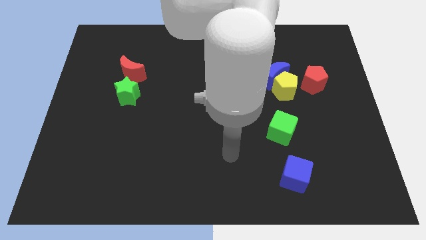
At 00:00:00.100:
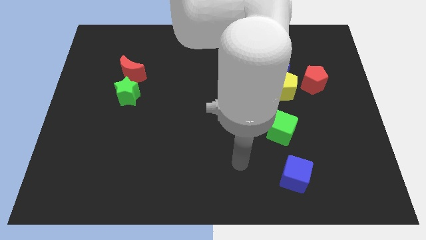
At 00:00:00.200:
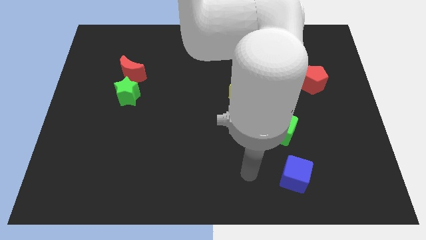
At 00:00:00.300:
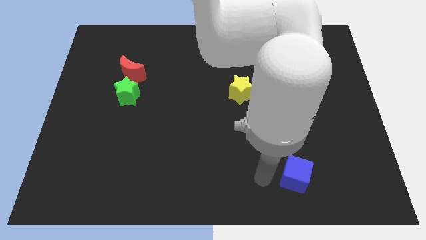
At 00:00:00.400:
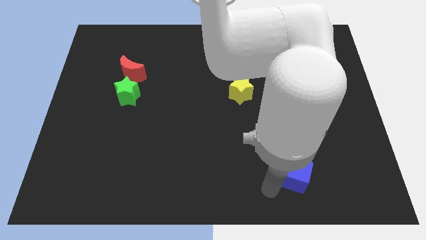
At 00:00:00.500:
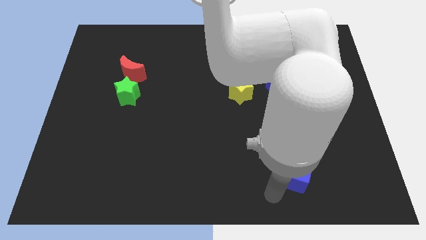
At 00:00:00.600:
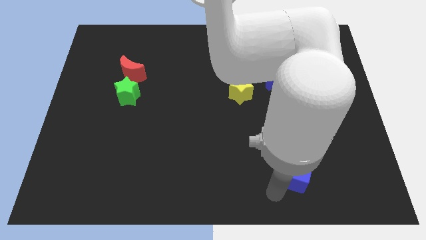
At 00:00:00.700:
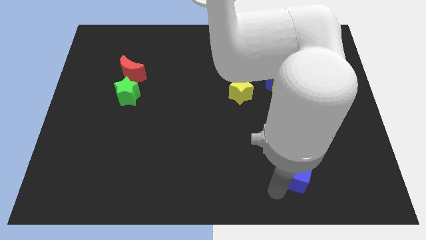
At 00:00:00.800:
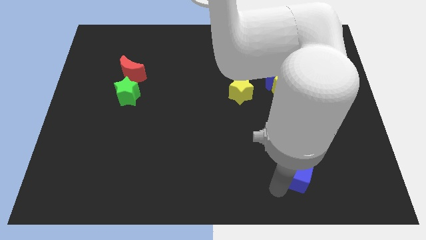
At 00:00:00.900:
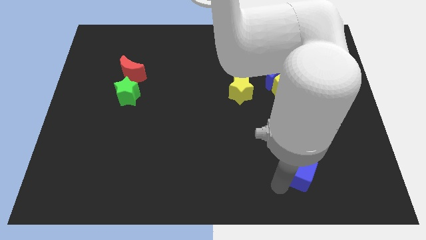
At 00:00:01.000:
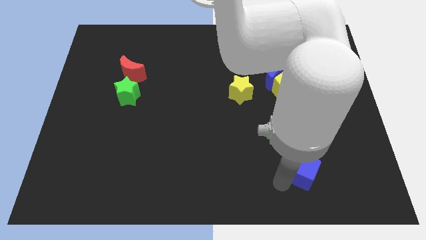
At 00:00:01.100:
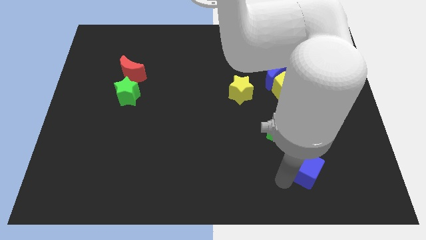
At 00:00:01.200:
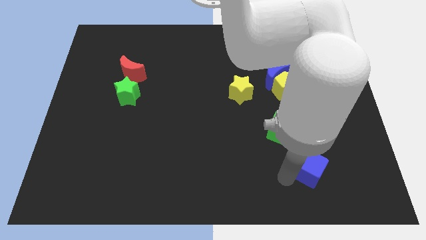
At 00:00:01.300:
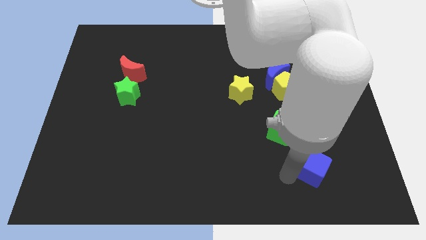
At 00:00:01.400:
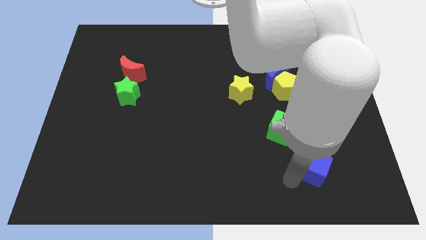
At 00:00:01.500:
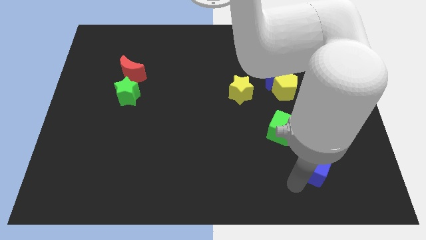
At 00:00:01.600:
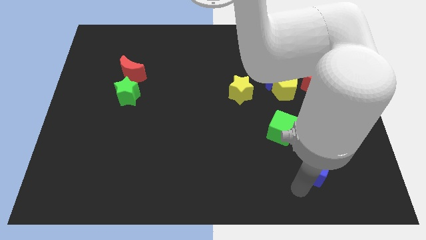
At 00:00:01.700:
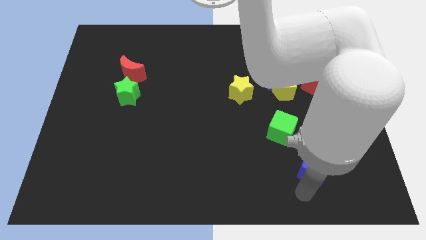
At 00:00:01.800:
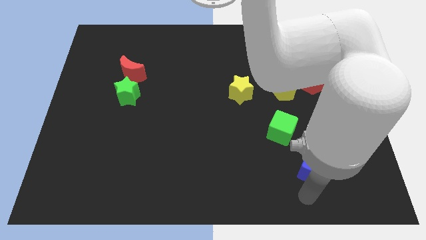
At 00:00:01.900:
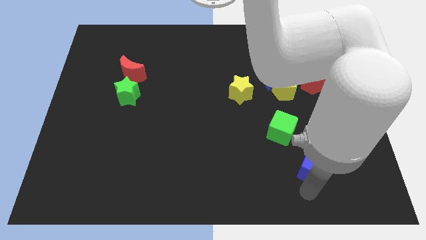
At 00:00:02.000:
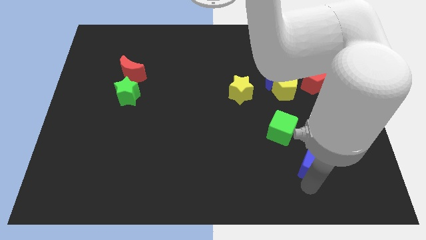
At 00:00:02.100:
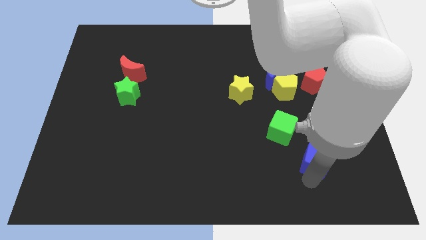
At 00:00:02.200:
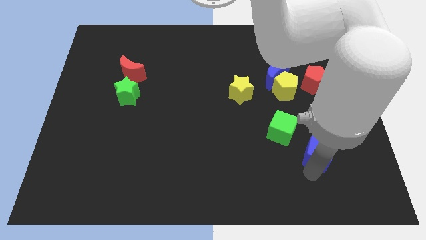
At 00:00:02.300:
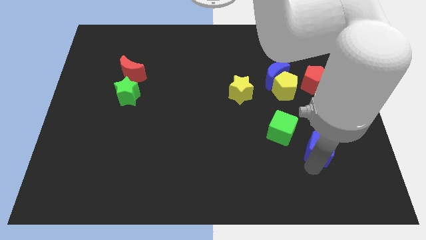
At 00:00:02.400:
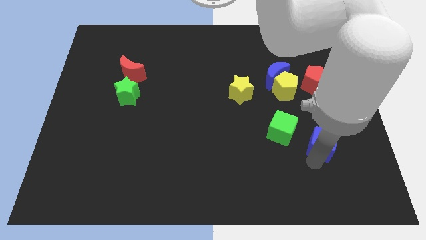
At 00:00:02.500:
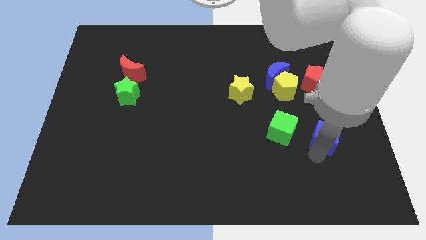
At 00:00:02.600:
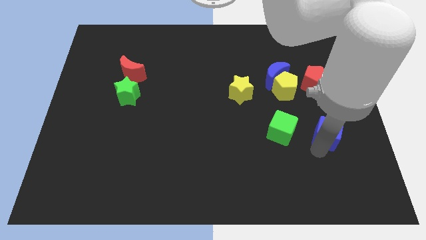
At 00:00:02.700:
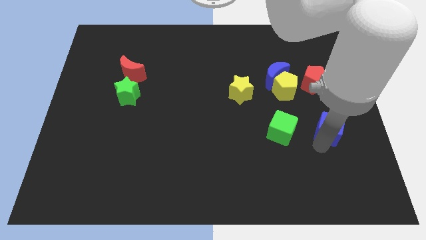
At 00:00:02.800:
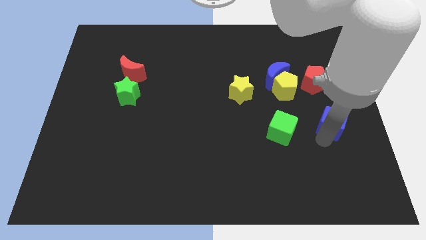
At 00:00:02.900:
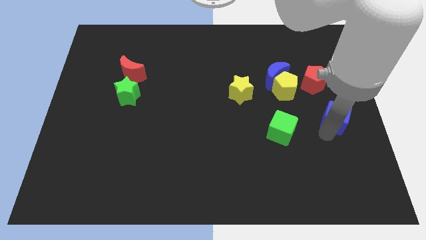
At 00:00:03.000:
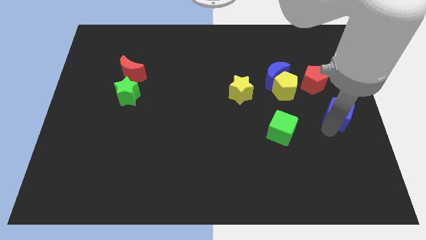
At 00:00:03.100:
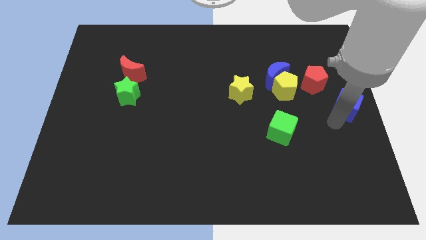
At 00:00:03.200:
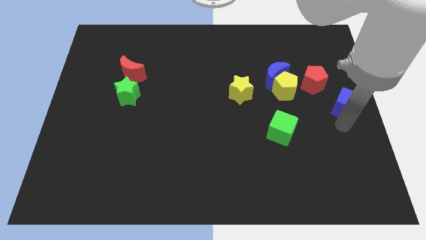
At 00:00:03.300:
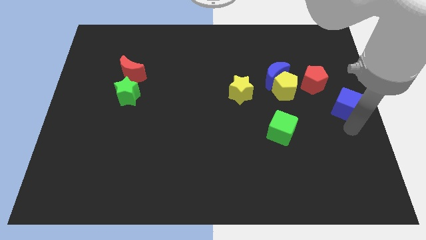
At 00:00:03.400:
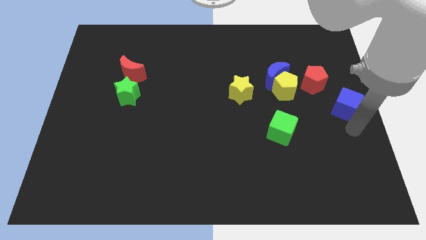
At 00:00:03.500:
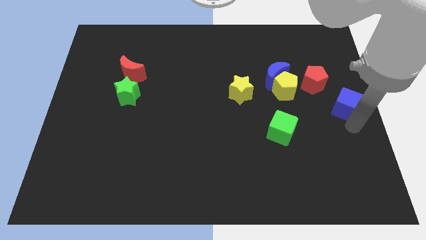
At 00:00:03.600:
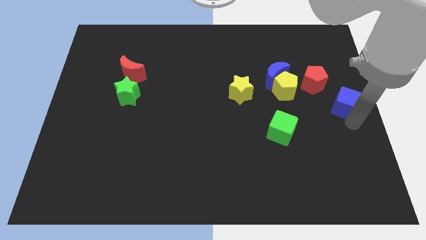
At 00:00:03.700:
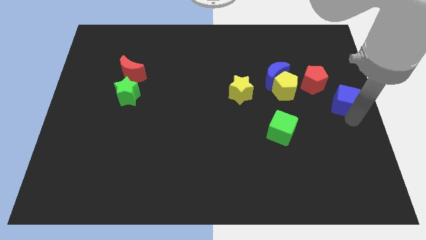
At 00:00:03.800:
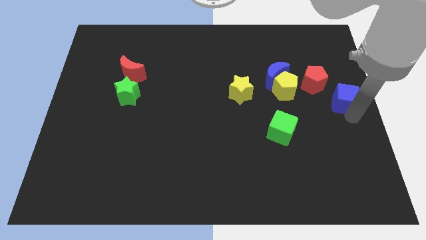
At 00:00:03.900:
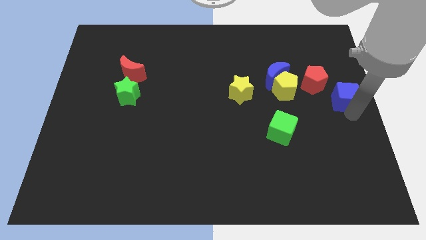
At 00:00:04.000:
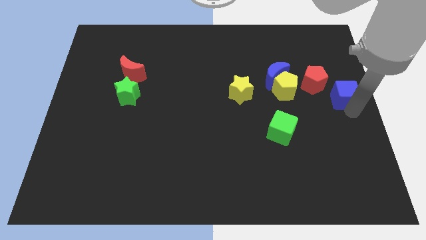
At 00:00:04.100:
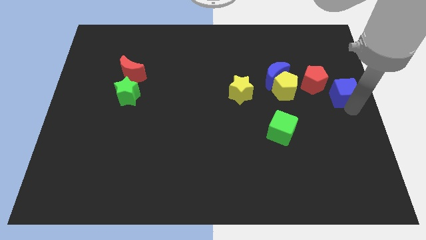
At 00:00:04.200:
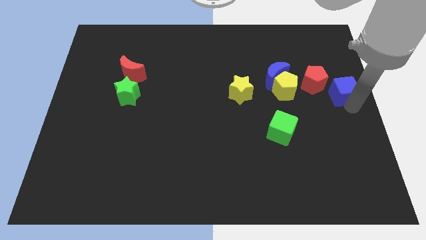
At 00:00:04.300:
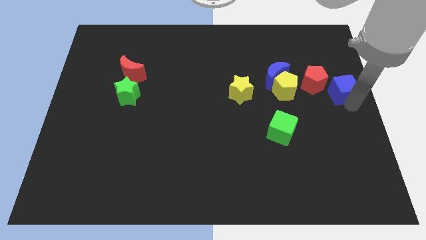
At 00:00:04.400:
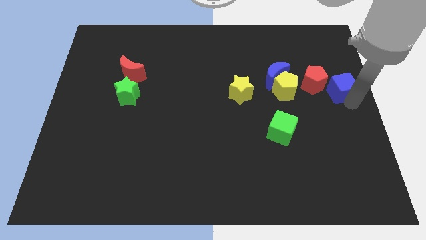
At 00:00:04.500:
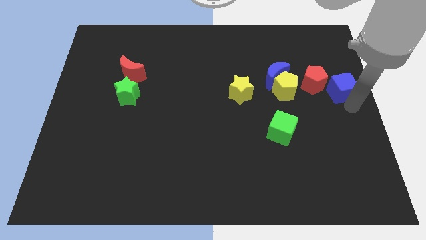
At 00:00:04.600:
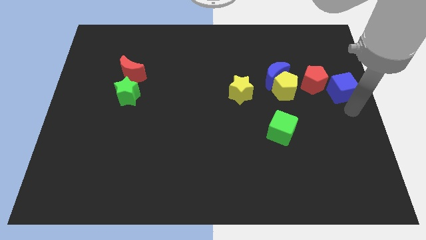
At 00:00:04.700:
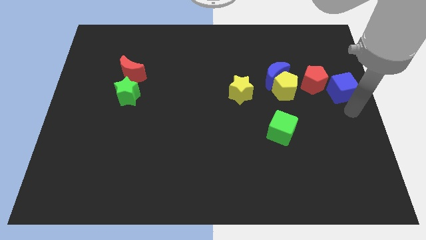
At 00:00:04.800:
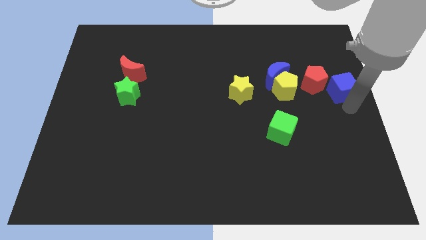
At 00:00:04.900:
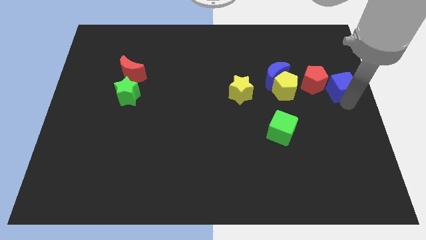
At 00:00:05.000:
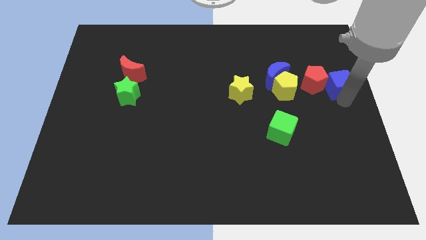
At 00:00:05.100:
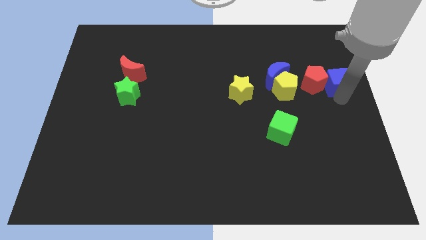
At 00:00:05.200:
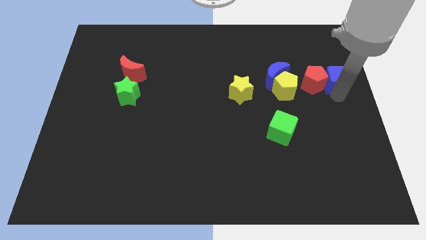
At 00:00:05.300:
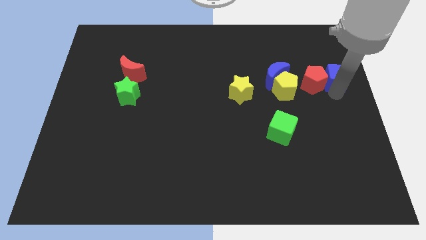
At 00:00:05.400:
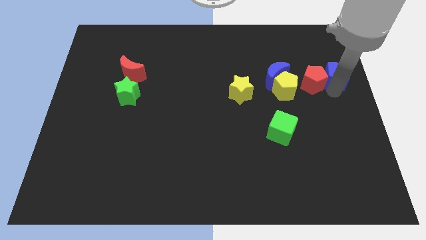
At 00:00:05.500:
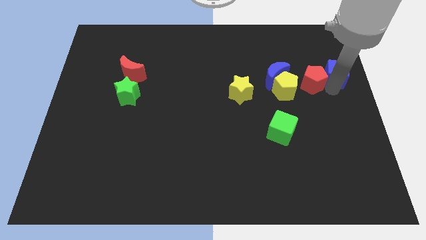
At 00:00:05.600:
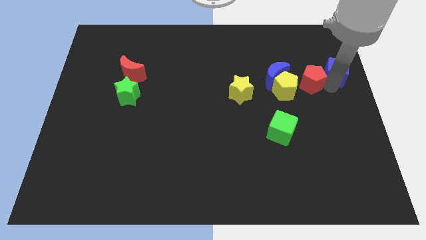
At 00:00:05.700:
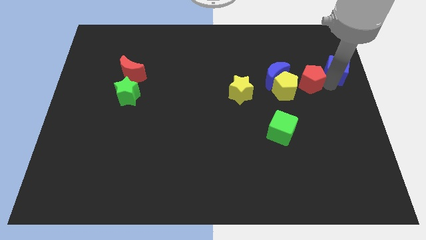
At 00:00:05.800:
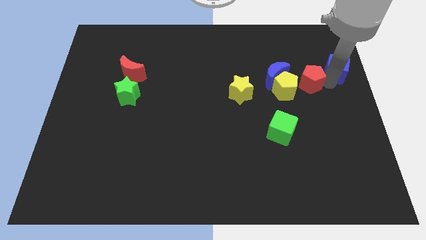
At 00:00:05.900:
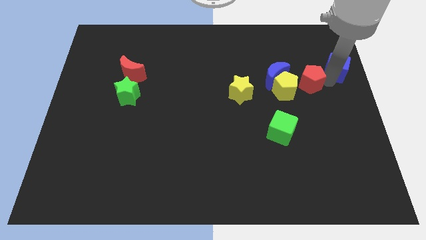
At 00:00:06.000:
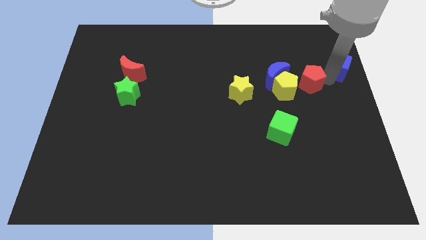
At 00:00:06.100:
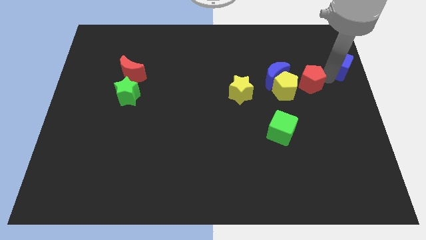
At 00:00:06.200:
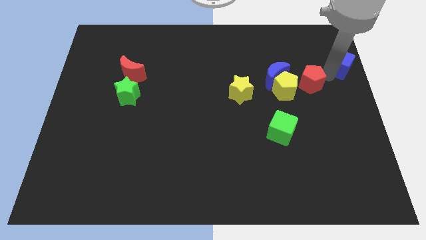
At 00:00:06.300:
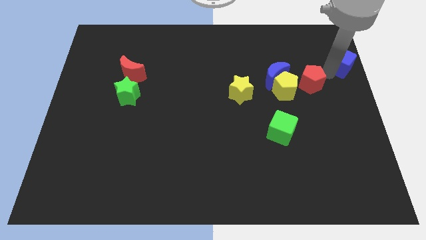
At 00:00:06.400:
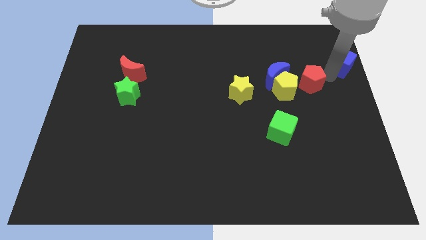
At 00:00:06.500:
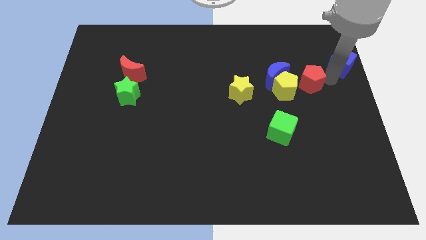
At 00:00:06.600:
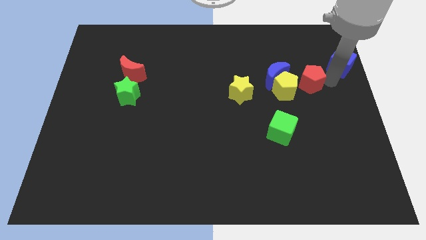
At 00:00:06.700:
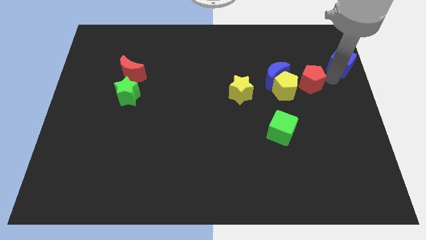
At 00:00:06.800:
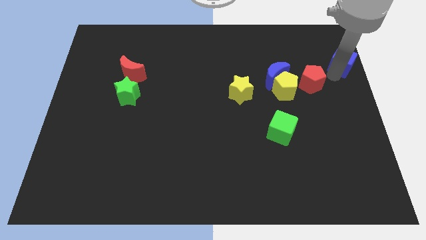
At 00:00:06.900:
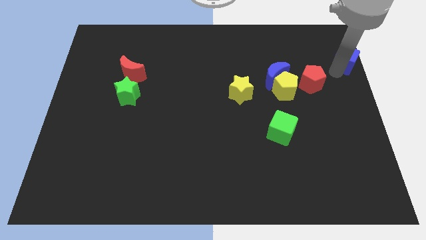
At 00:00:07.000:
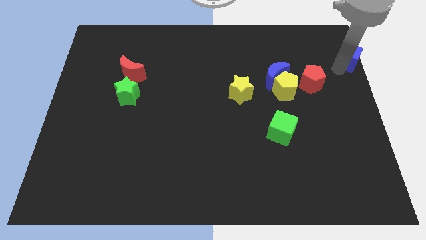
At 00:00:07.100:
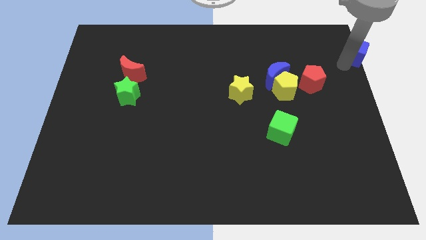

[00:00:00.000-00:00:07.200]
push the blue cube to the upper right corner
